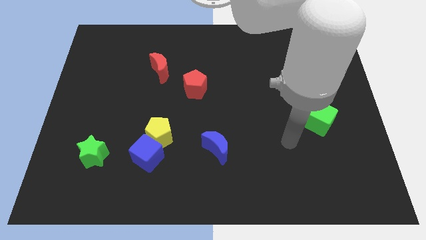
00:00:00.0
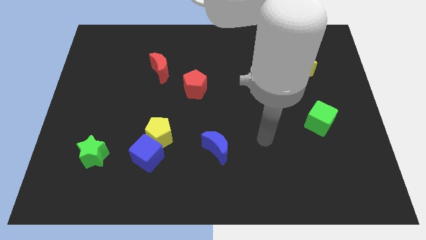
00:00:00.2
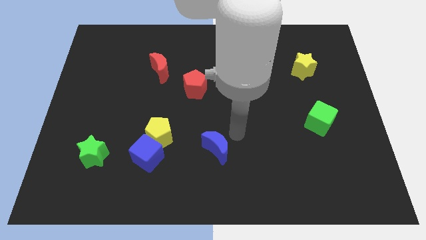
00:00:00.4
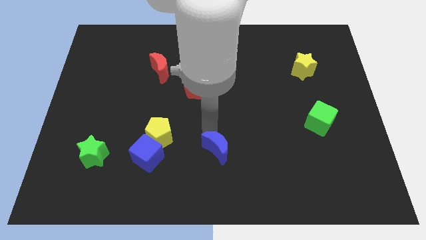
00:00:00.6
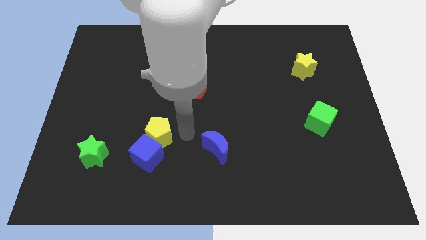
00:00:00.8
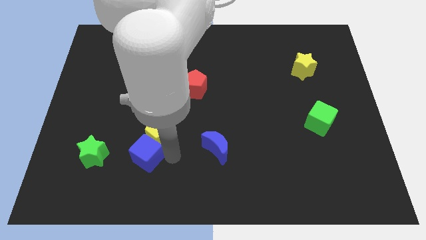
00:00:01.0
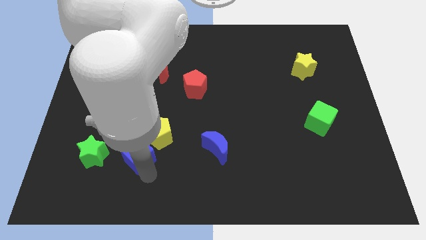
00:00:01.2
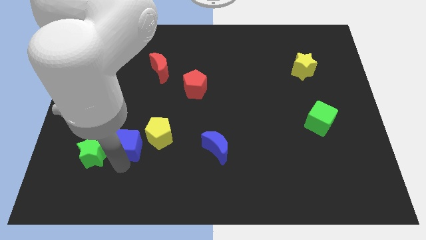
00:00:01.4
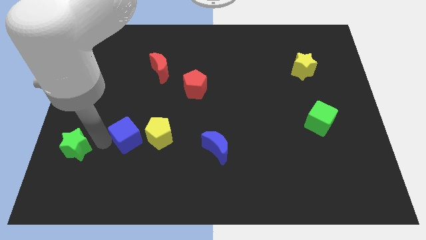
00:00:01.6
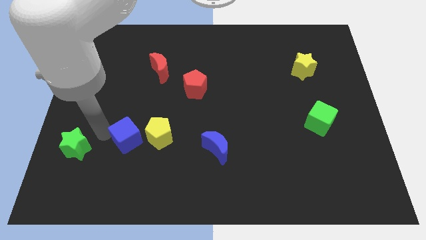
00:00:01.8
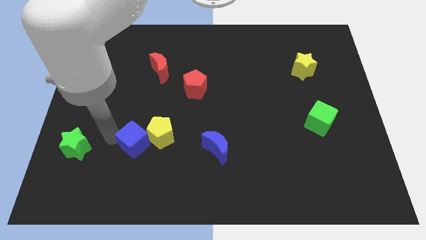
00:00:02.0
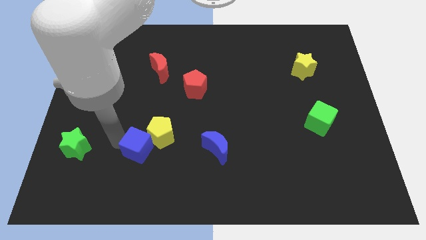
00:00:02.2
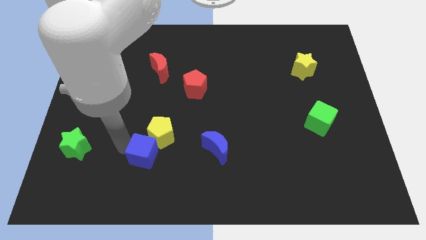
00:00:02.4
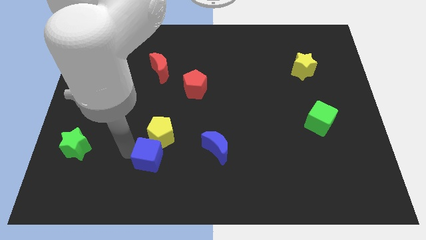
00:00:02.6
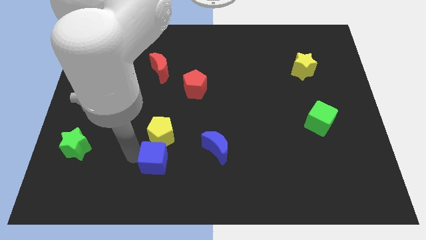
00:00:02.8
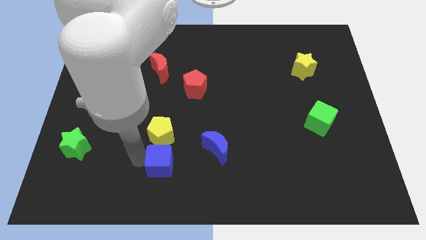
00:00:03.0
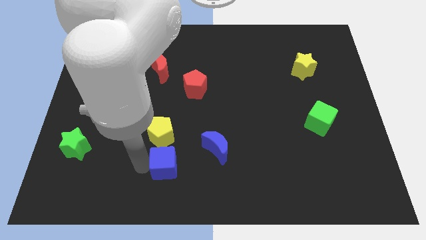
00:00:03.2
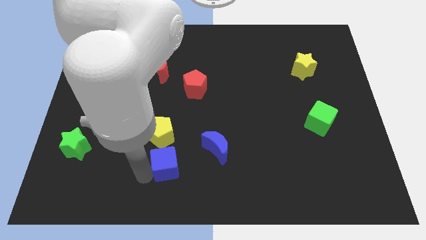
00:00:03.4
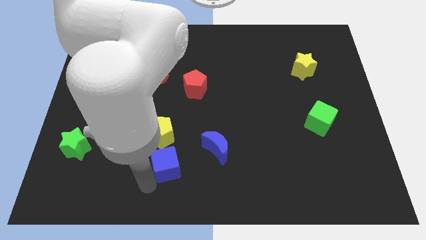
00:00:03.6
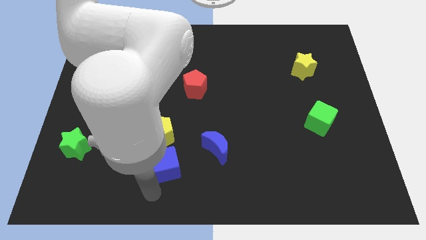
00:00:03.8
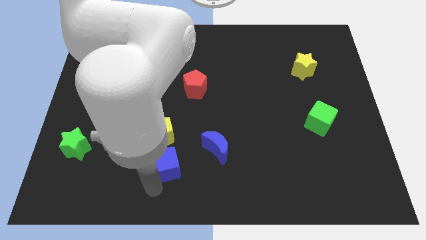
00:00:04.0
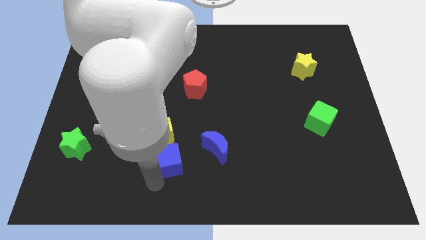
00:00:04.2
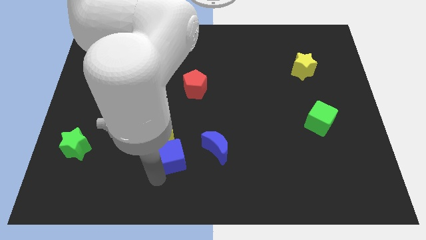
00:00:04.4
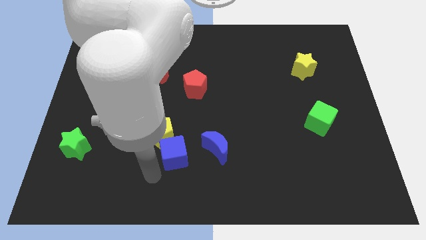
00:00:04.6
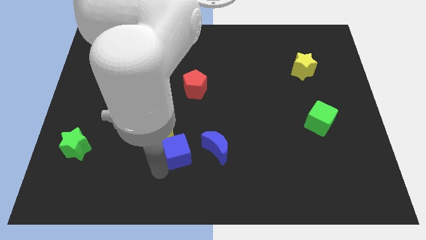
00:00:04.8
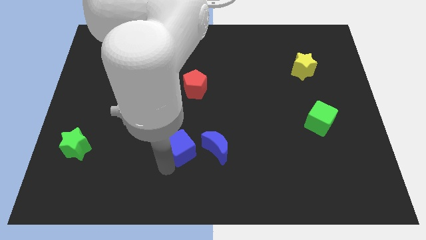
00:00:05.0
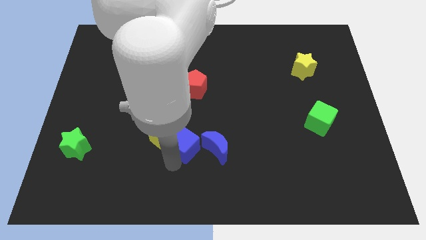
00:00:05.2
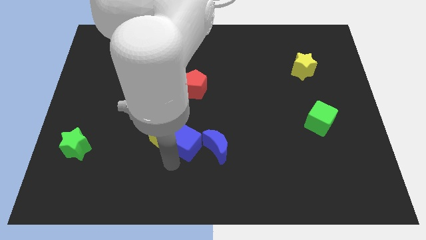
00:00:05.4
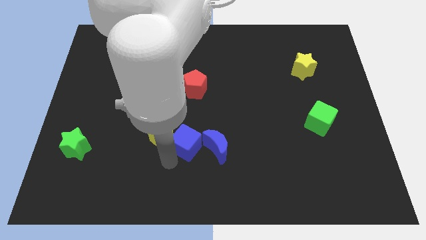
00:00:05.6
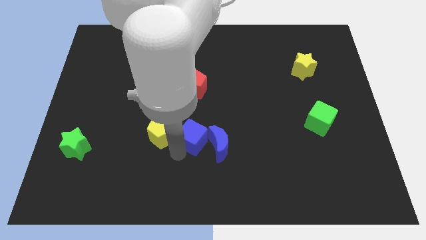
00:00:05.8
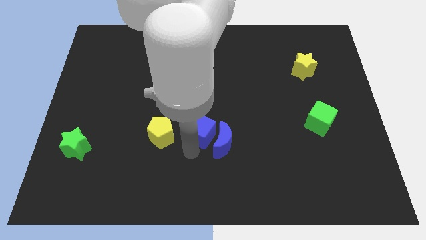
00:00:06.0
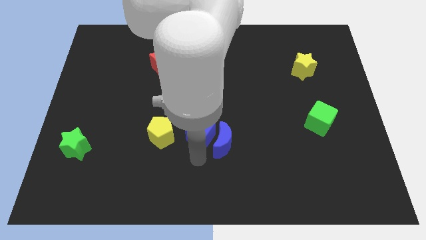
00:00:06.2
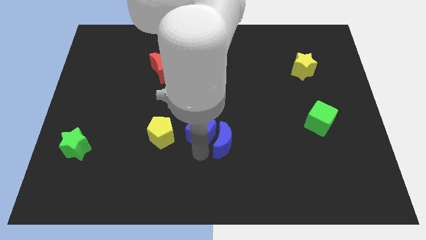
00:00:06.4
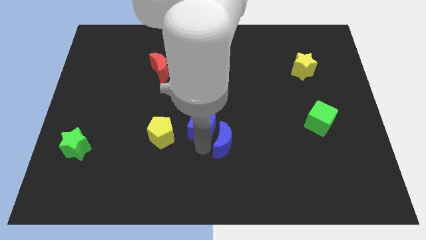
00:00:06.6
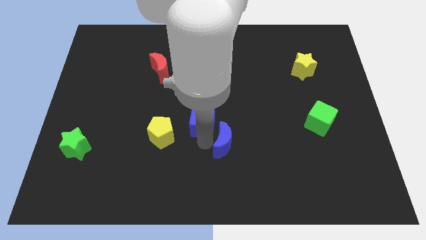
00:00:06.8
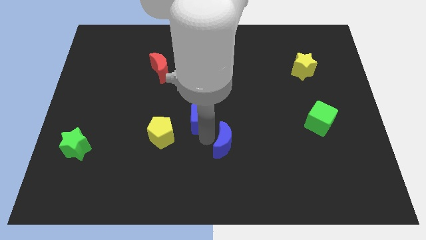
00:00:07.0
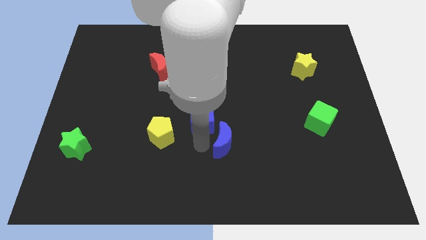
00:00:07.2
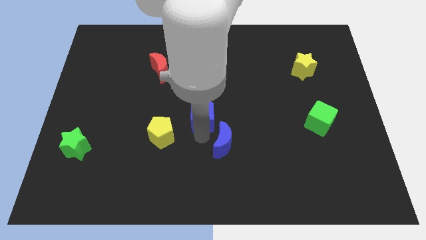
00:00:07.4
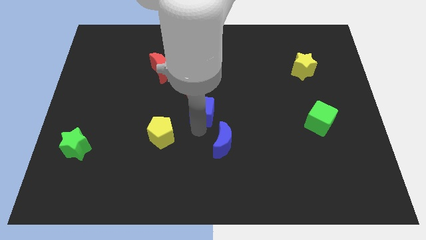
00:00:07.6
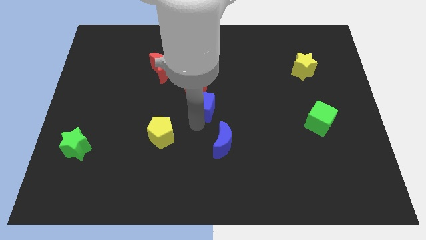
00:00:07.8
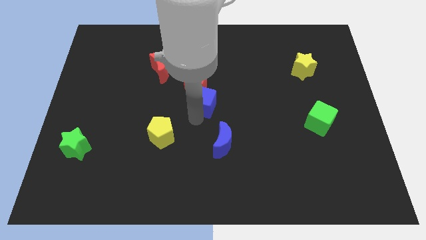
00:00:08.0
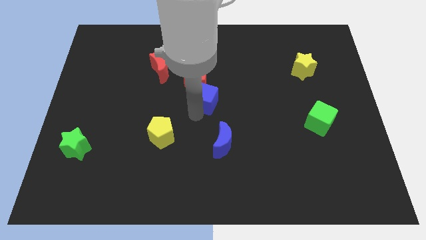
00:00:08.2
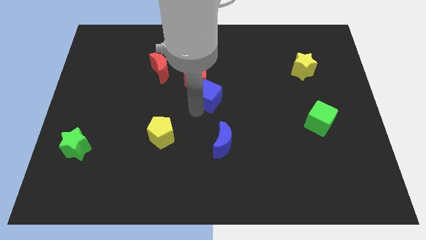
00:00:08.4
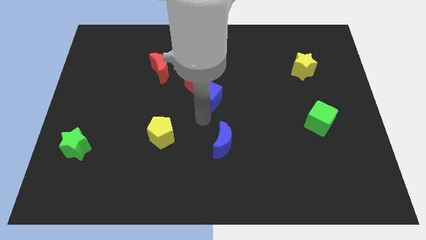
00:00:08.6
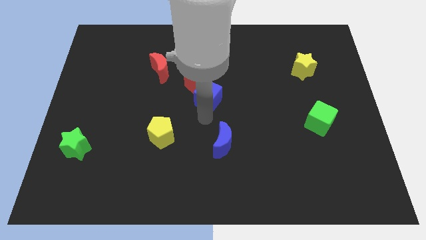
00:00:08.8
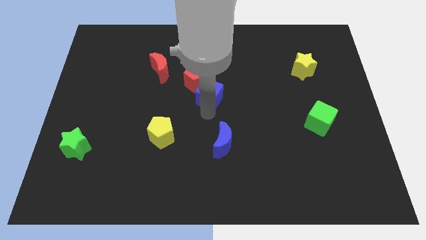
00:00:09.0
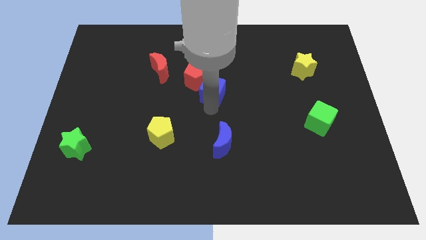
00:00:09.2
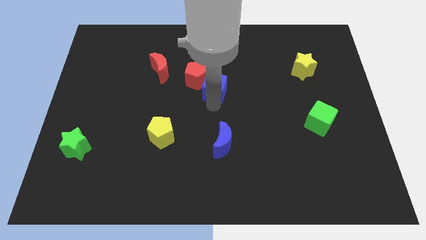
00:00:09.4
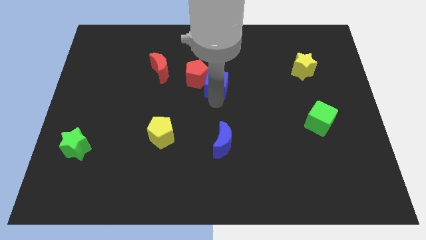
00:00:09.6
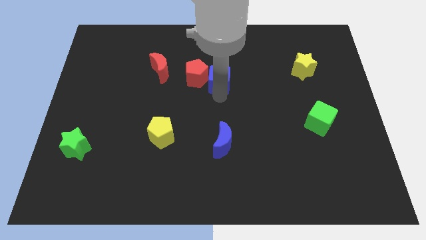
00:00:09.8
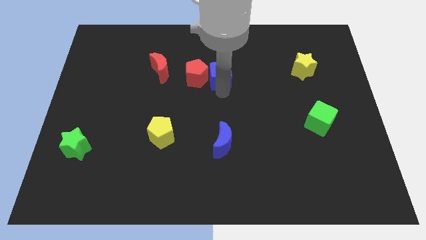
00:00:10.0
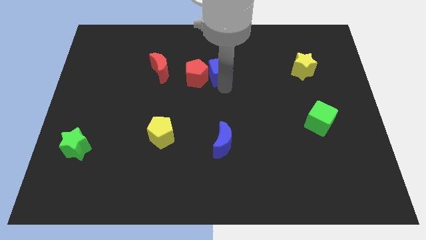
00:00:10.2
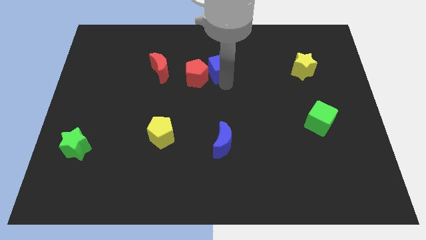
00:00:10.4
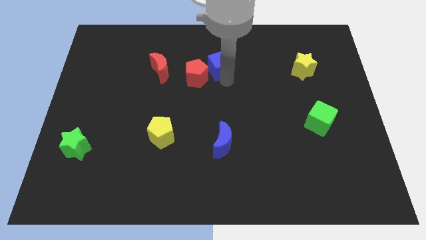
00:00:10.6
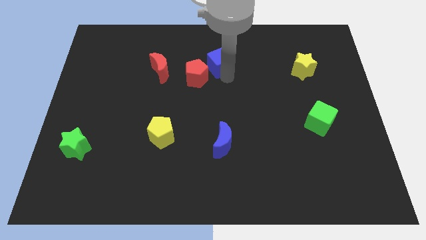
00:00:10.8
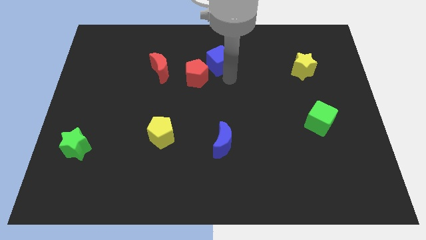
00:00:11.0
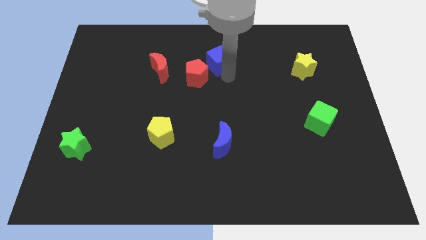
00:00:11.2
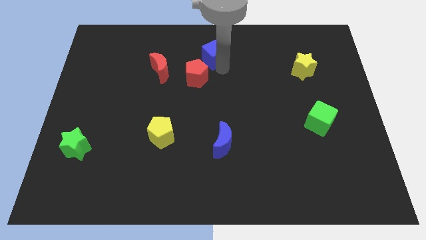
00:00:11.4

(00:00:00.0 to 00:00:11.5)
push the blue cube to the top side
